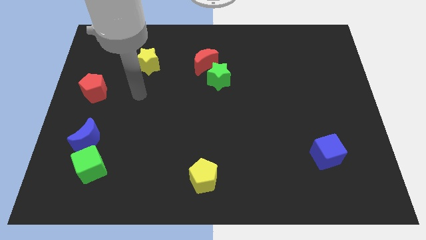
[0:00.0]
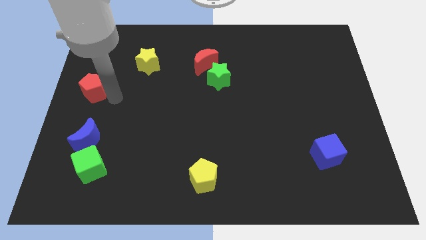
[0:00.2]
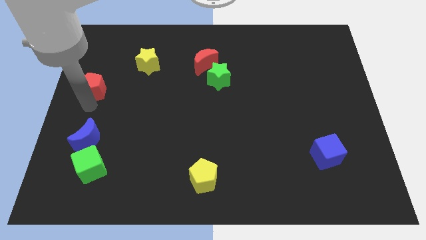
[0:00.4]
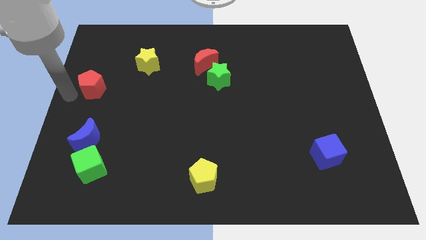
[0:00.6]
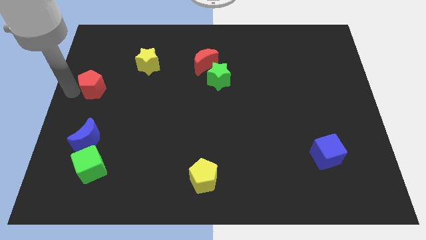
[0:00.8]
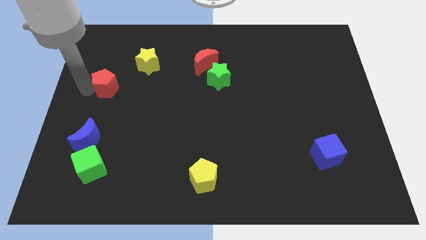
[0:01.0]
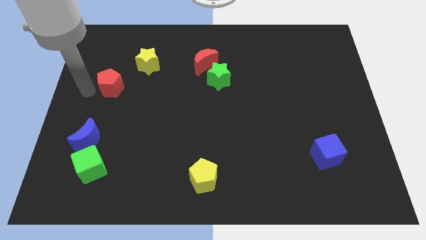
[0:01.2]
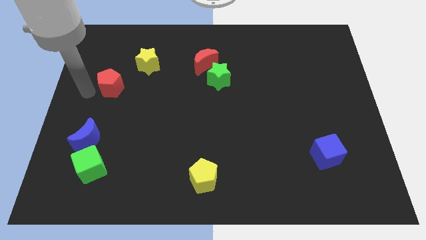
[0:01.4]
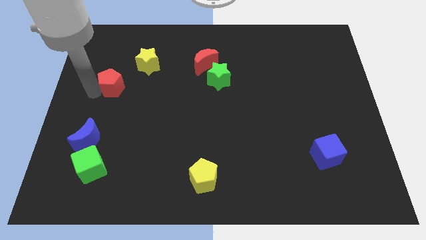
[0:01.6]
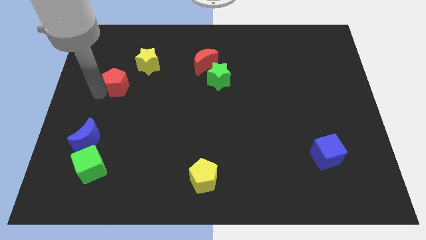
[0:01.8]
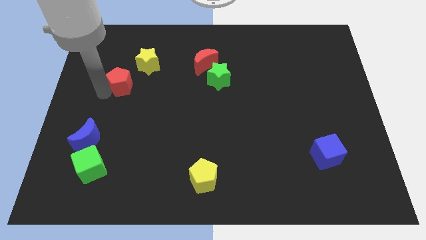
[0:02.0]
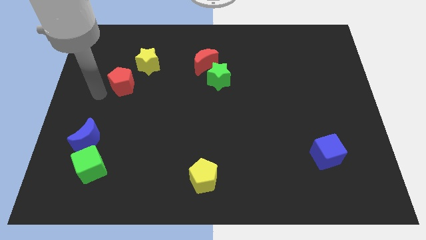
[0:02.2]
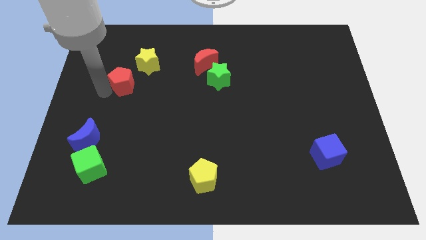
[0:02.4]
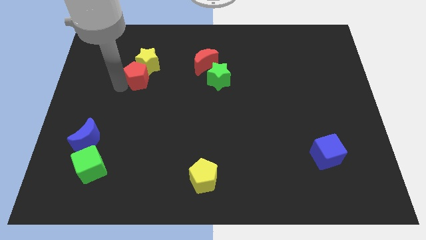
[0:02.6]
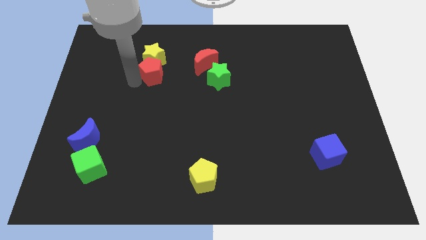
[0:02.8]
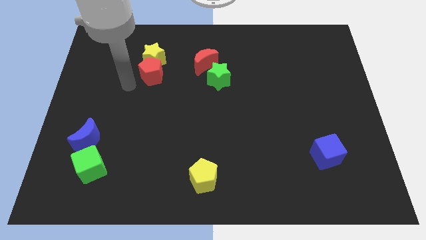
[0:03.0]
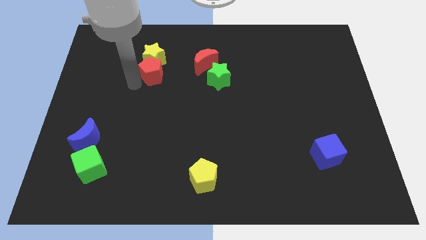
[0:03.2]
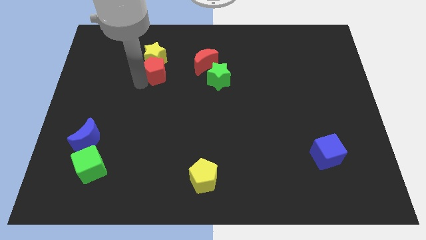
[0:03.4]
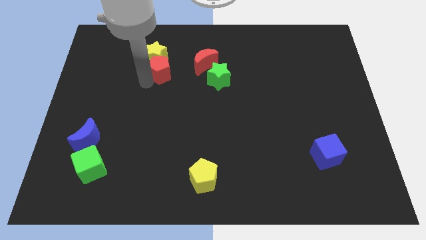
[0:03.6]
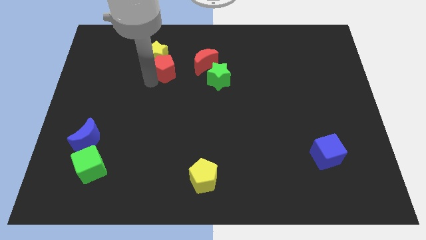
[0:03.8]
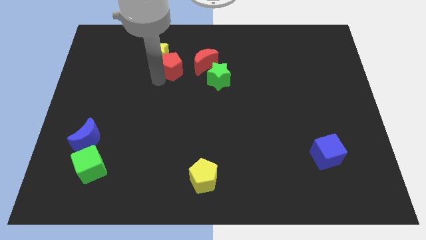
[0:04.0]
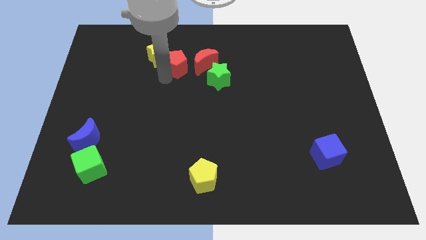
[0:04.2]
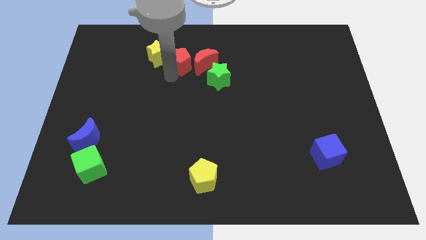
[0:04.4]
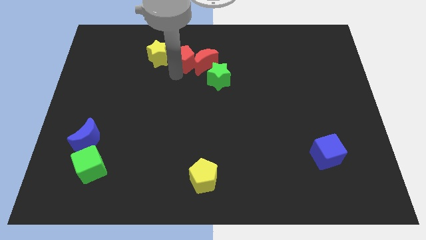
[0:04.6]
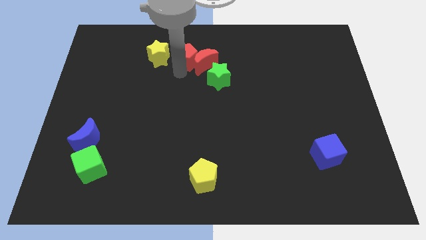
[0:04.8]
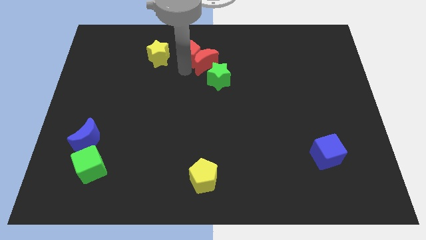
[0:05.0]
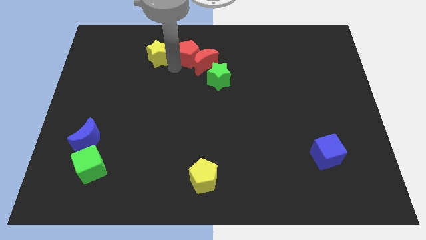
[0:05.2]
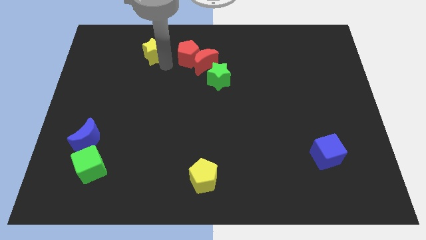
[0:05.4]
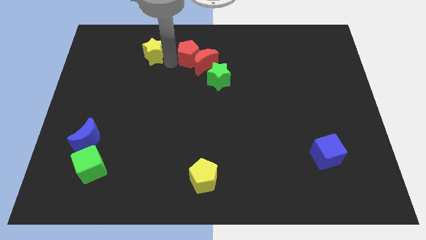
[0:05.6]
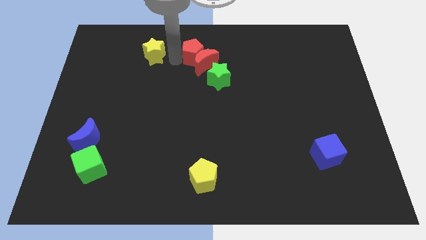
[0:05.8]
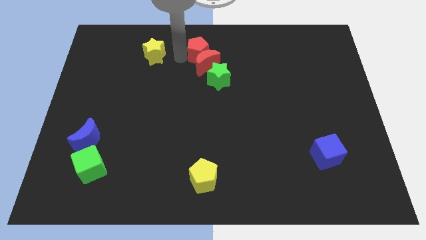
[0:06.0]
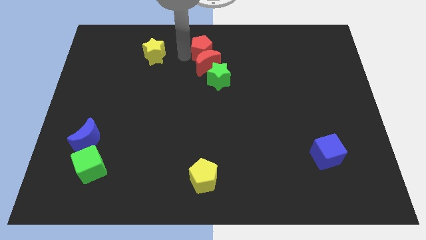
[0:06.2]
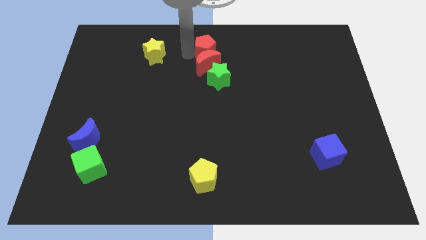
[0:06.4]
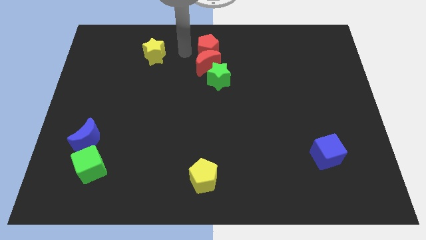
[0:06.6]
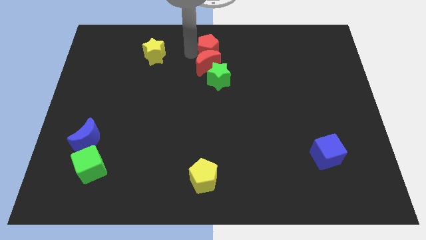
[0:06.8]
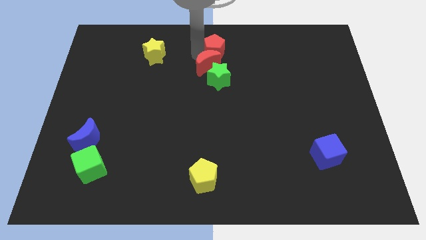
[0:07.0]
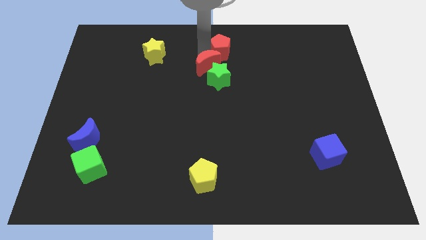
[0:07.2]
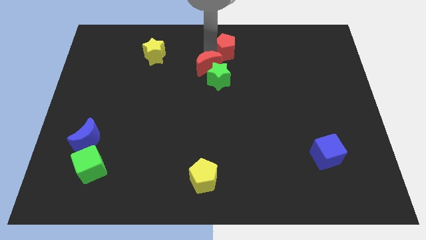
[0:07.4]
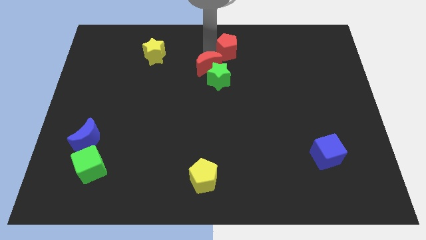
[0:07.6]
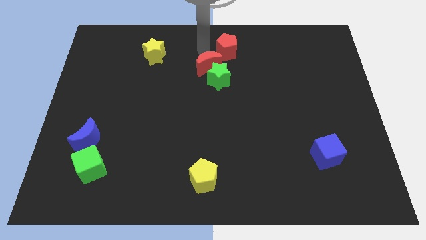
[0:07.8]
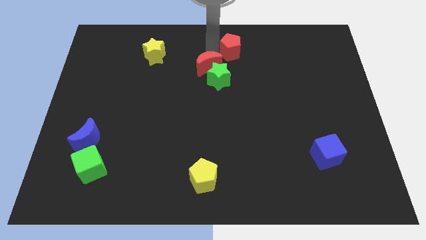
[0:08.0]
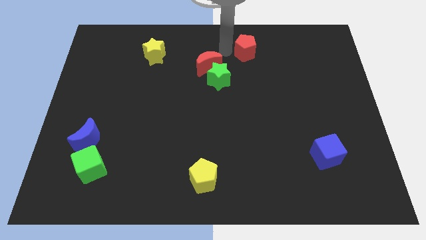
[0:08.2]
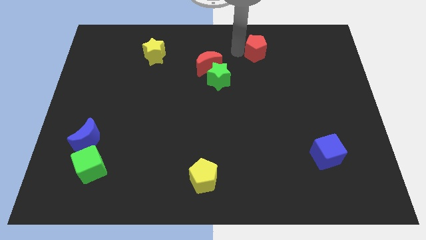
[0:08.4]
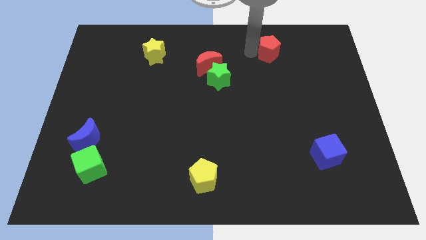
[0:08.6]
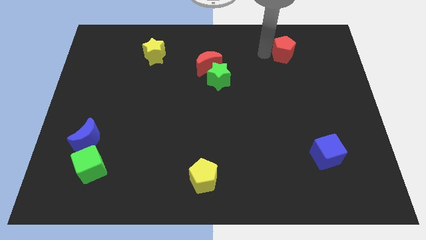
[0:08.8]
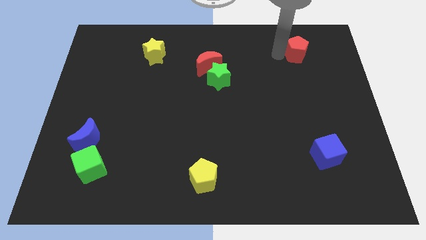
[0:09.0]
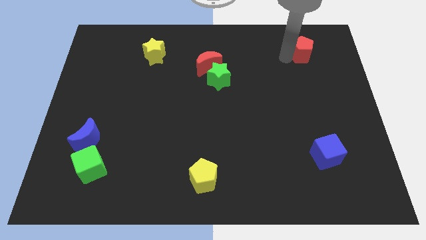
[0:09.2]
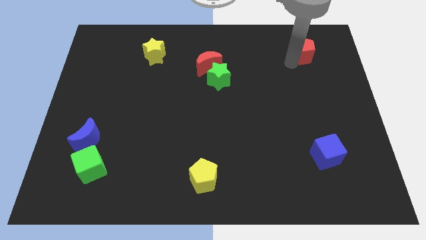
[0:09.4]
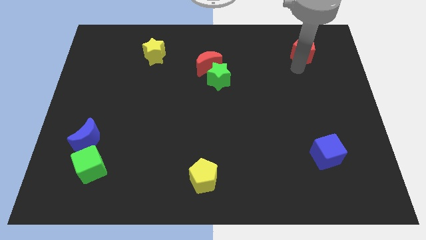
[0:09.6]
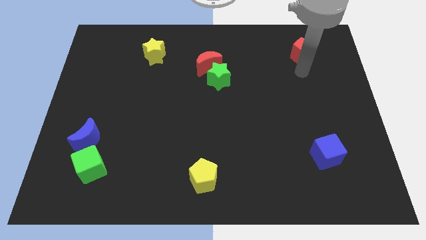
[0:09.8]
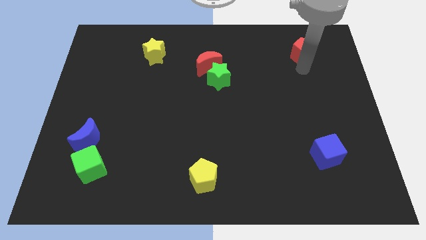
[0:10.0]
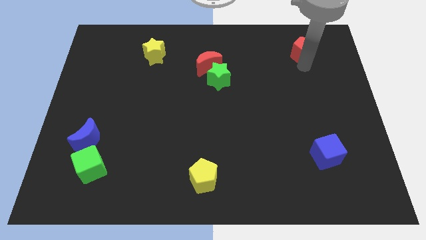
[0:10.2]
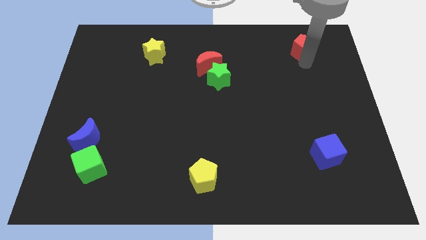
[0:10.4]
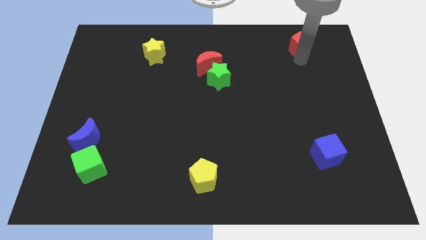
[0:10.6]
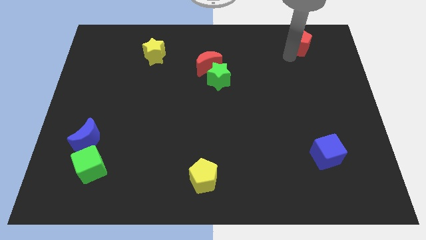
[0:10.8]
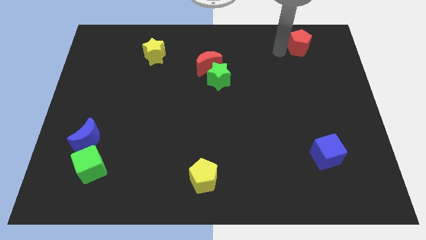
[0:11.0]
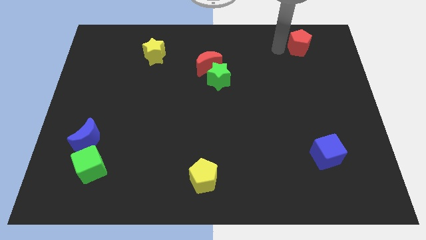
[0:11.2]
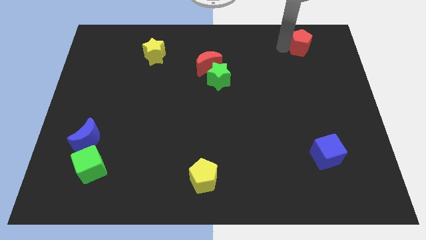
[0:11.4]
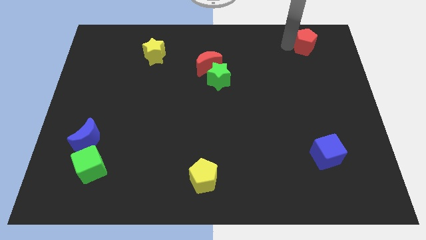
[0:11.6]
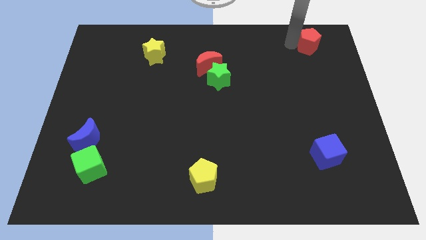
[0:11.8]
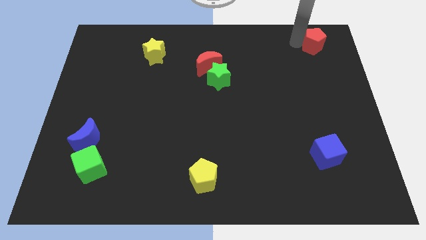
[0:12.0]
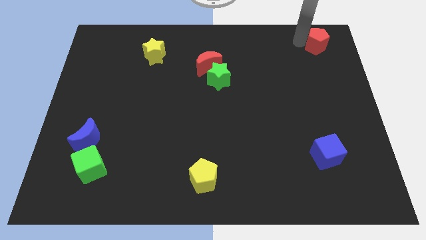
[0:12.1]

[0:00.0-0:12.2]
put the red pentagon to the top right corner

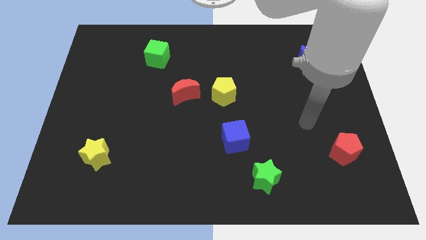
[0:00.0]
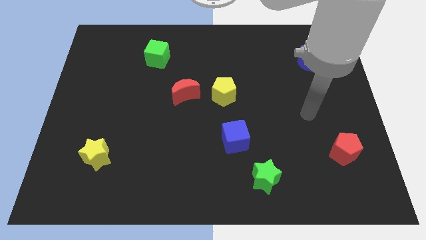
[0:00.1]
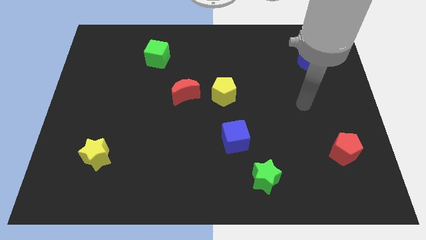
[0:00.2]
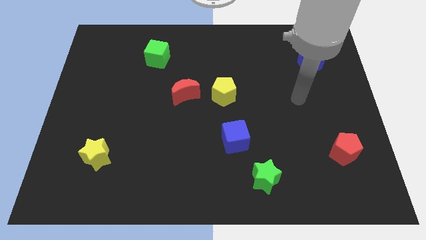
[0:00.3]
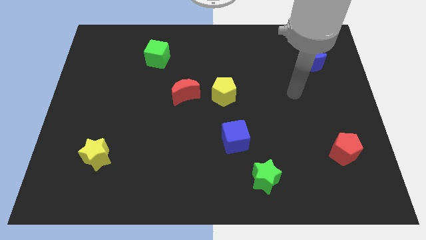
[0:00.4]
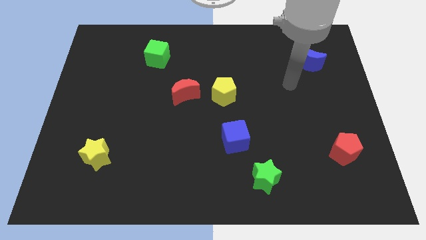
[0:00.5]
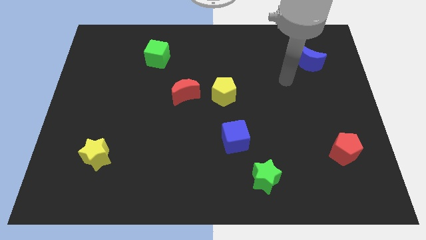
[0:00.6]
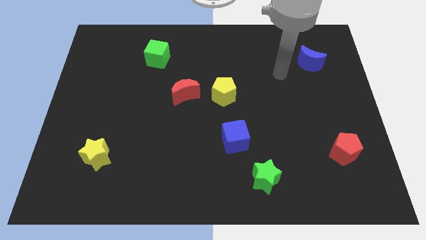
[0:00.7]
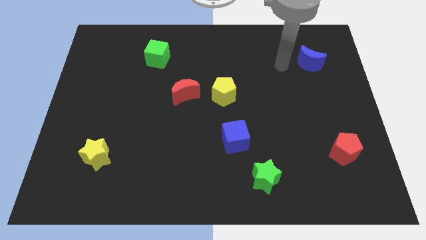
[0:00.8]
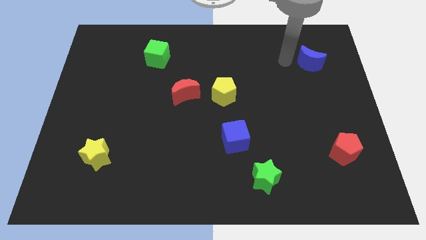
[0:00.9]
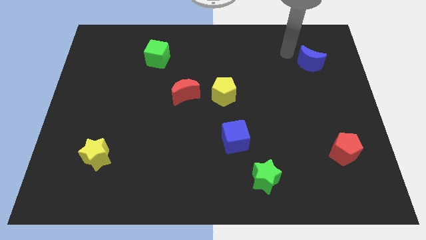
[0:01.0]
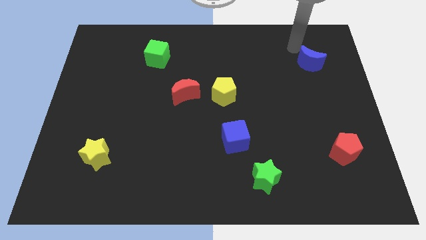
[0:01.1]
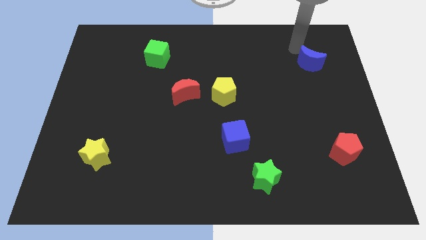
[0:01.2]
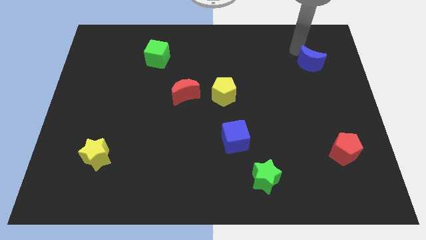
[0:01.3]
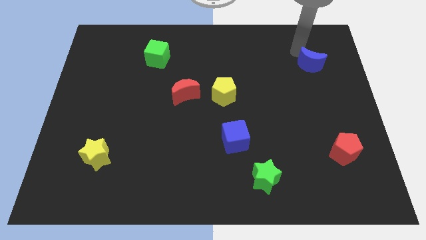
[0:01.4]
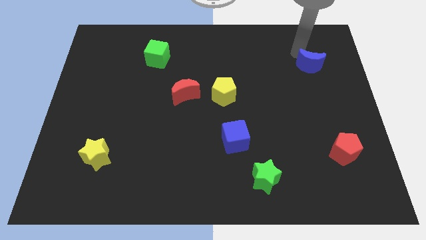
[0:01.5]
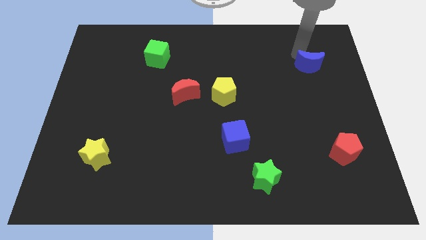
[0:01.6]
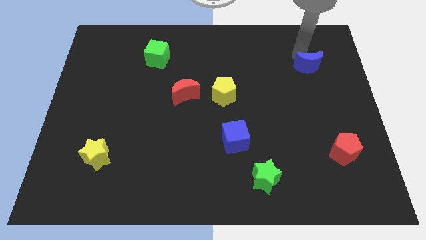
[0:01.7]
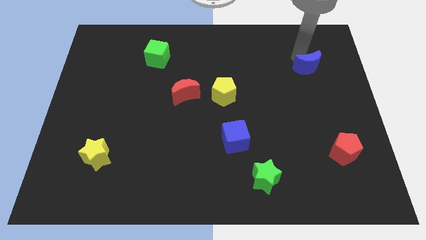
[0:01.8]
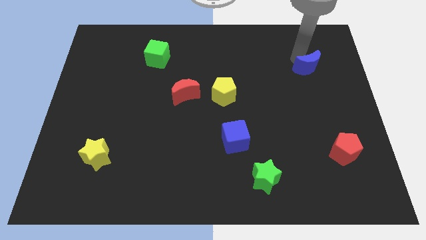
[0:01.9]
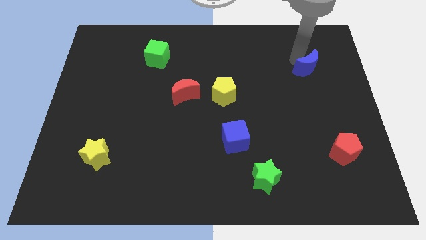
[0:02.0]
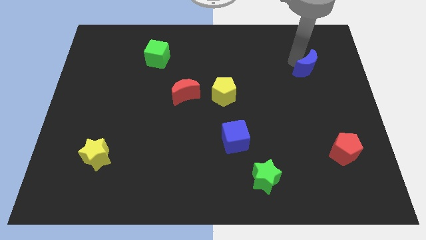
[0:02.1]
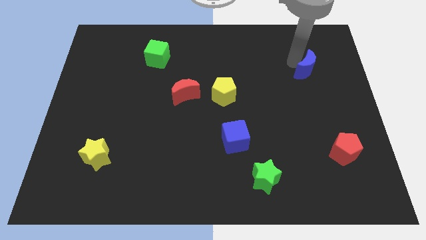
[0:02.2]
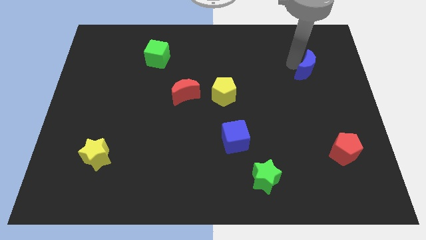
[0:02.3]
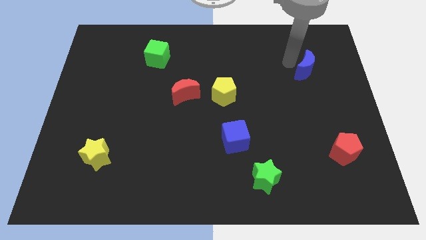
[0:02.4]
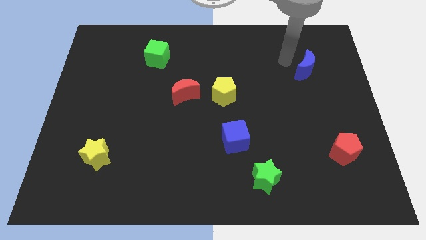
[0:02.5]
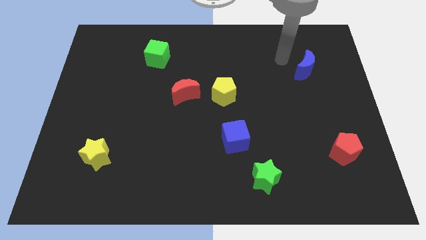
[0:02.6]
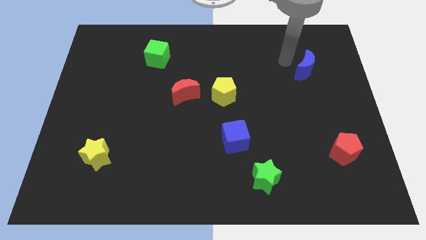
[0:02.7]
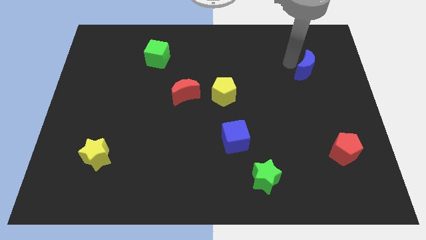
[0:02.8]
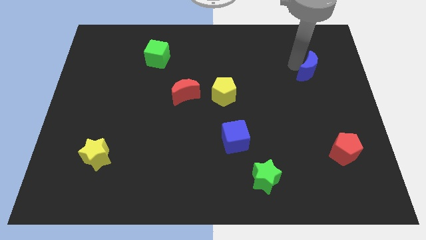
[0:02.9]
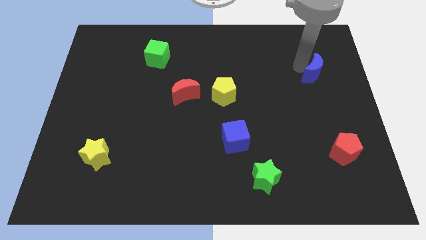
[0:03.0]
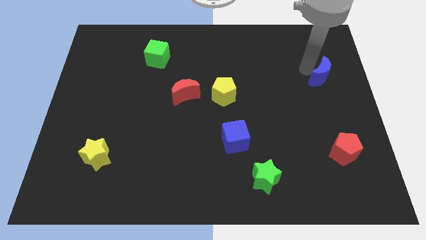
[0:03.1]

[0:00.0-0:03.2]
slide the blue moon to the right side of the board
